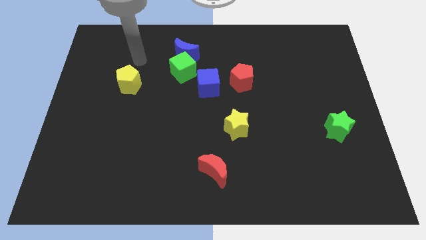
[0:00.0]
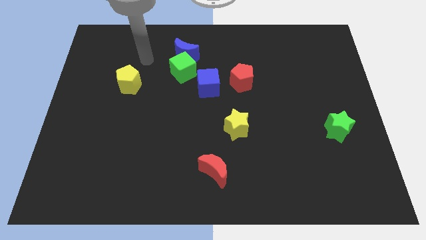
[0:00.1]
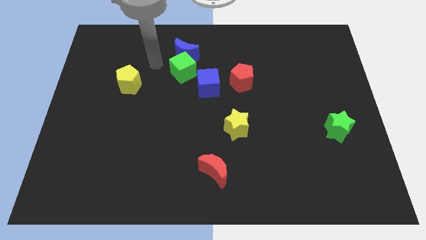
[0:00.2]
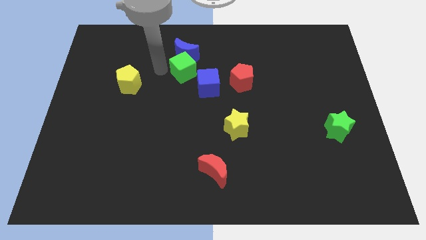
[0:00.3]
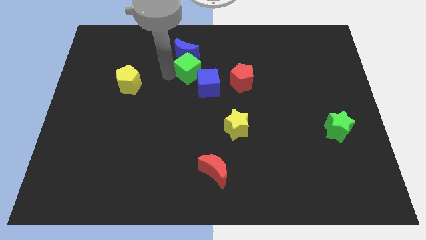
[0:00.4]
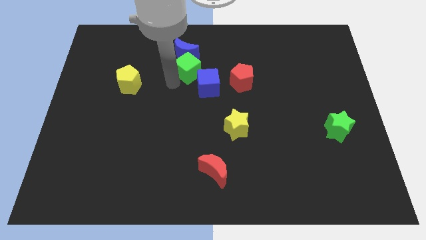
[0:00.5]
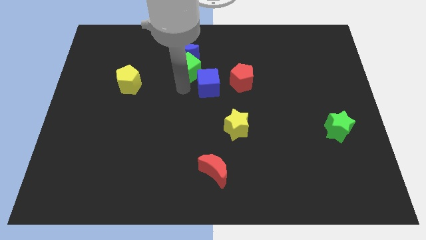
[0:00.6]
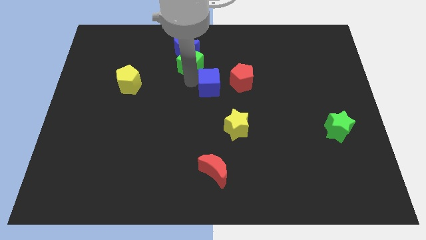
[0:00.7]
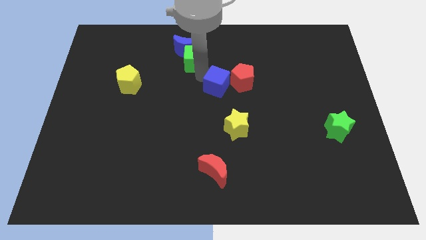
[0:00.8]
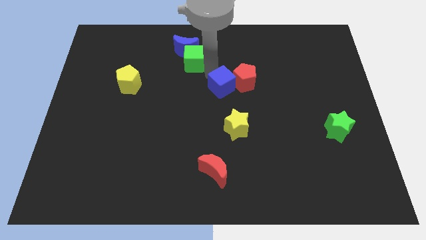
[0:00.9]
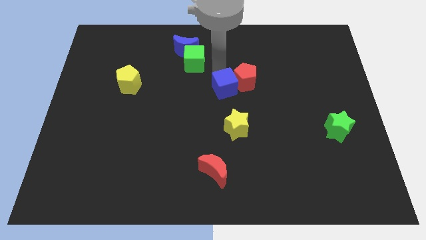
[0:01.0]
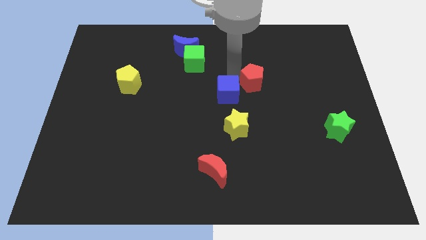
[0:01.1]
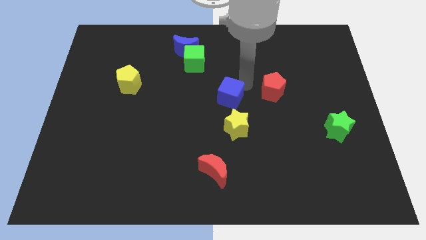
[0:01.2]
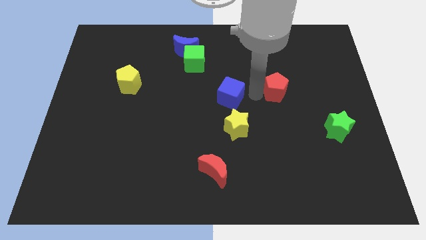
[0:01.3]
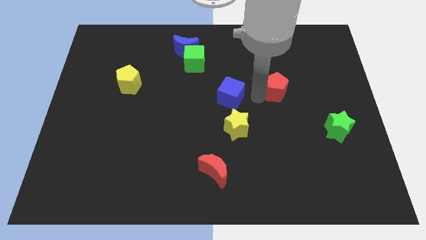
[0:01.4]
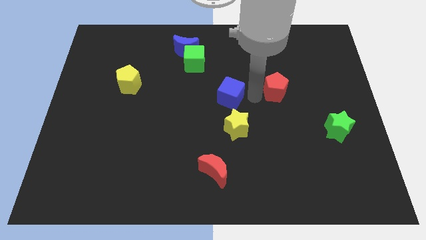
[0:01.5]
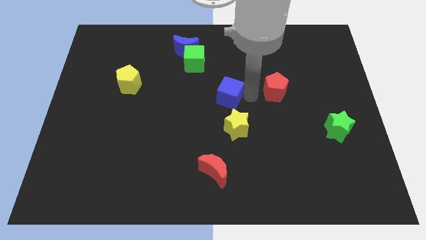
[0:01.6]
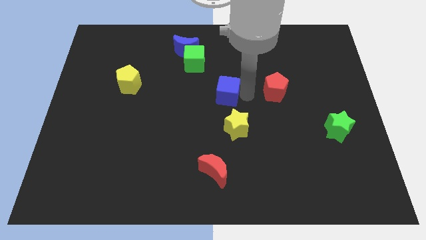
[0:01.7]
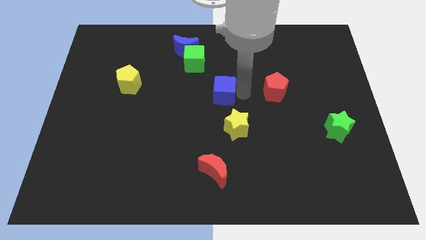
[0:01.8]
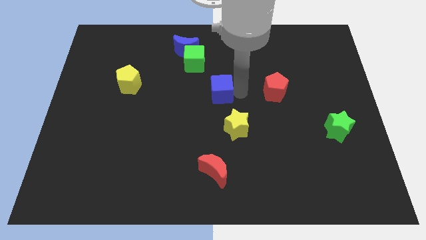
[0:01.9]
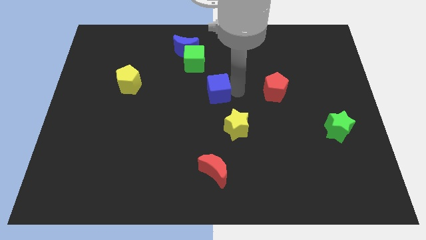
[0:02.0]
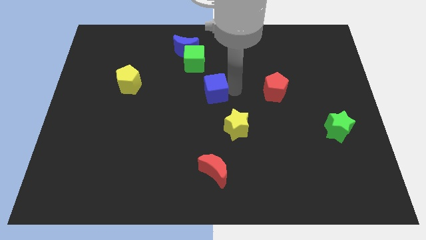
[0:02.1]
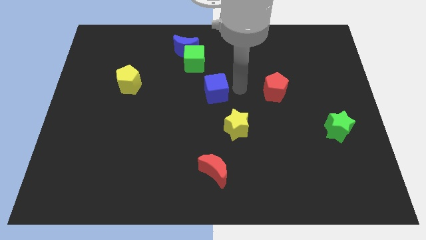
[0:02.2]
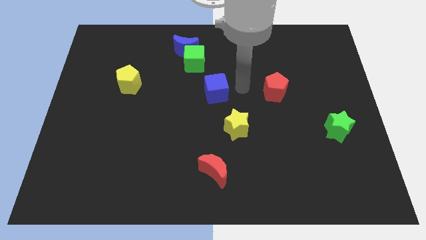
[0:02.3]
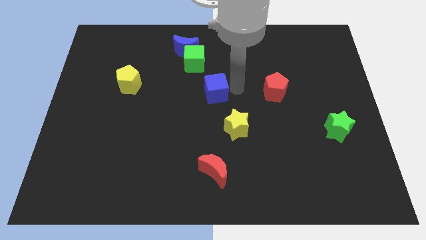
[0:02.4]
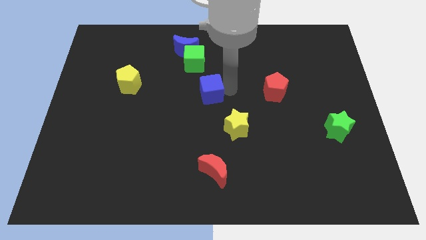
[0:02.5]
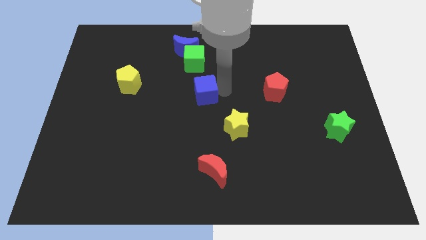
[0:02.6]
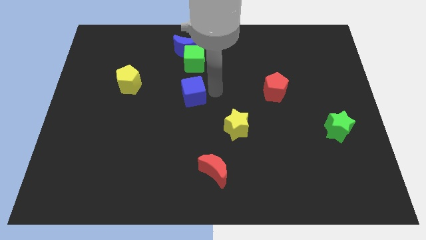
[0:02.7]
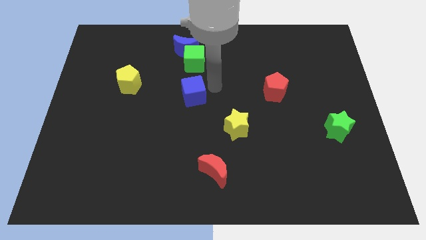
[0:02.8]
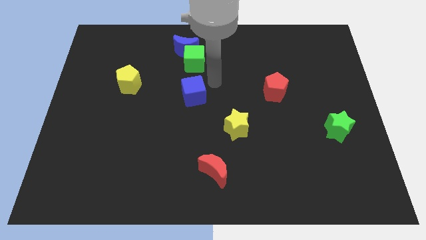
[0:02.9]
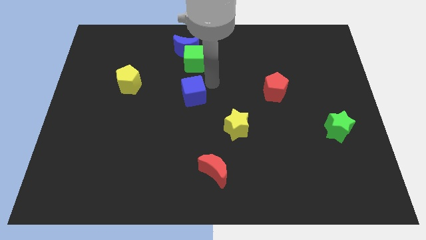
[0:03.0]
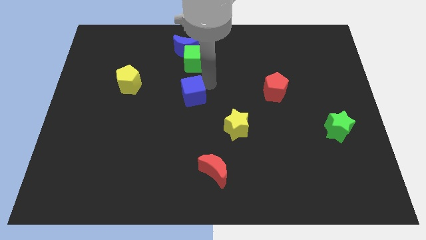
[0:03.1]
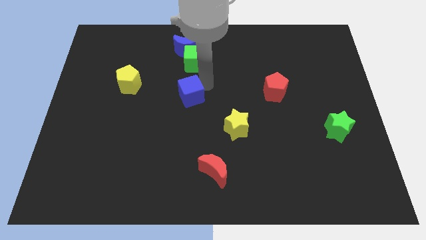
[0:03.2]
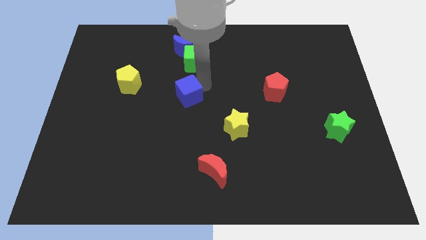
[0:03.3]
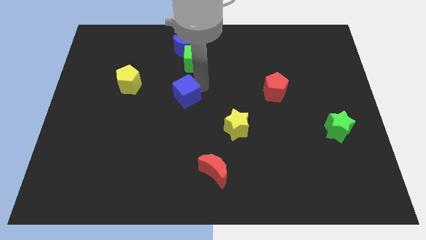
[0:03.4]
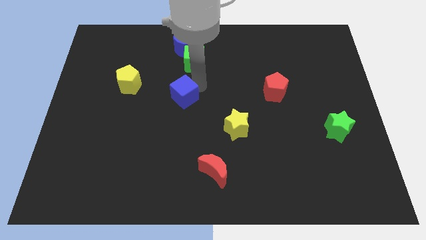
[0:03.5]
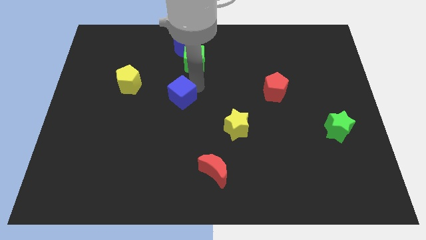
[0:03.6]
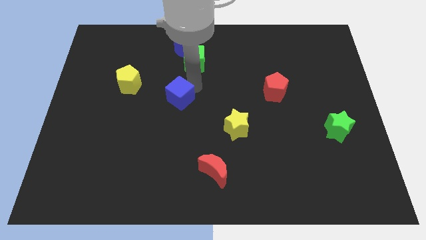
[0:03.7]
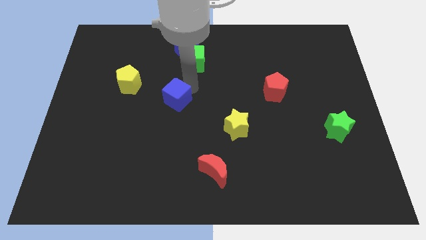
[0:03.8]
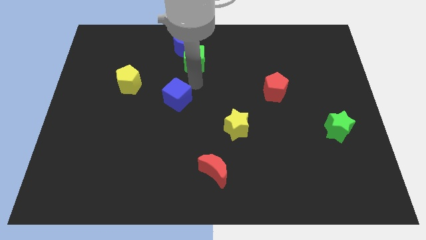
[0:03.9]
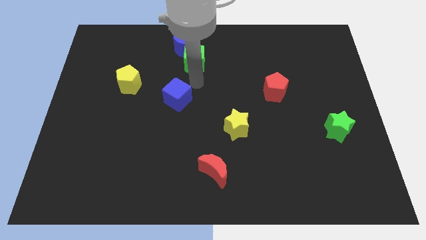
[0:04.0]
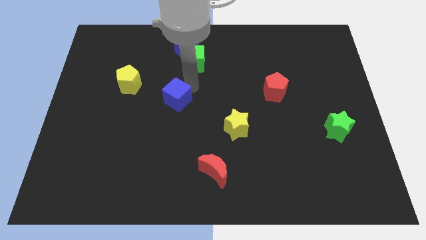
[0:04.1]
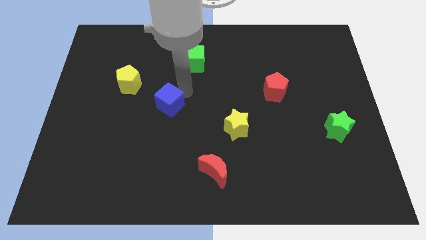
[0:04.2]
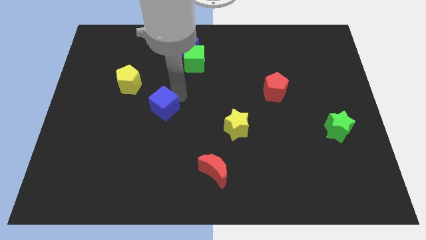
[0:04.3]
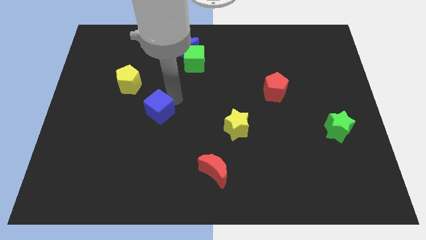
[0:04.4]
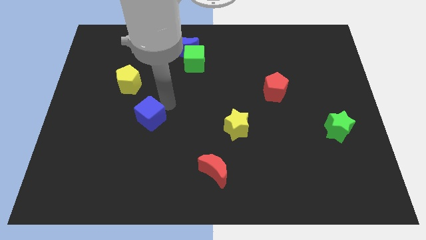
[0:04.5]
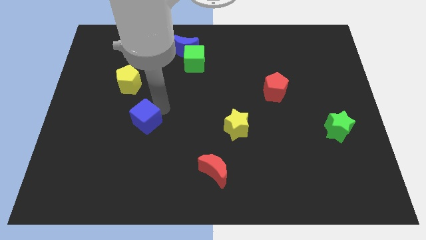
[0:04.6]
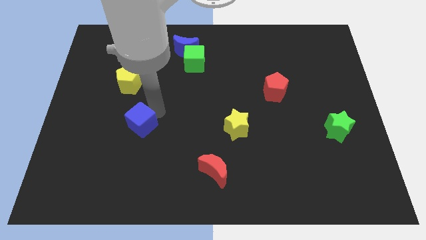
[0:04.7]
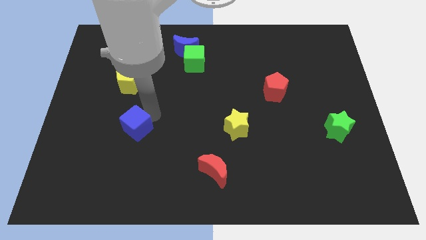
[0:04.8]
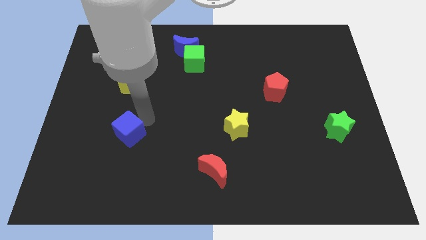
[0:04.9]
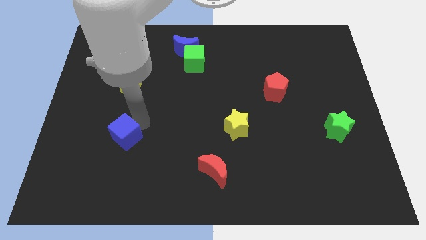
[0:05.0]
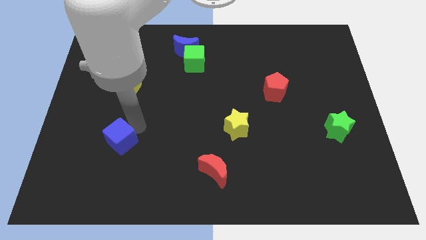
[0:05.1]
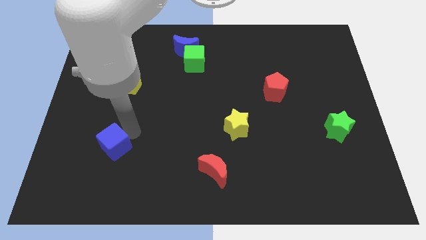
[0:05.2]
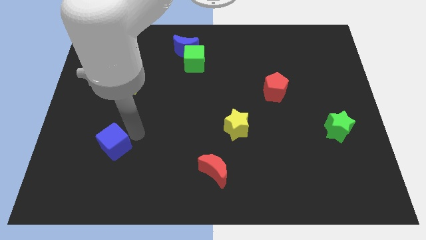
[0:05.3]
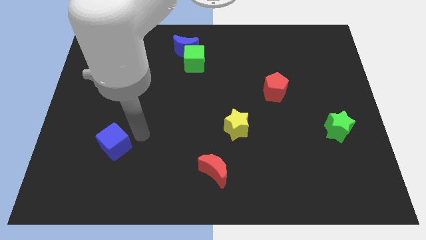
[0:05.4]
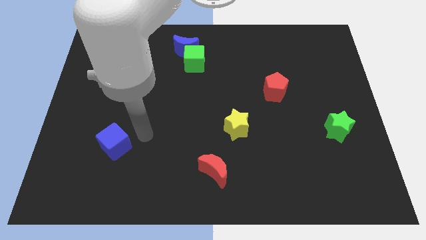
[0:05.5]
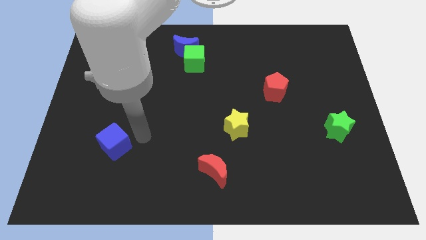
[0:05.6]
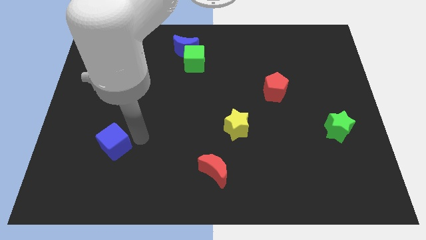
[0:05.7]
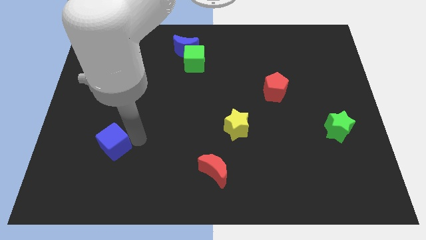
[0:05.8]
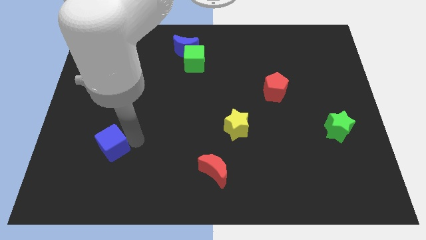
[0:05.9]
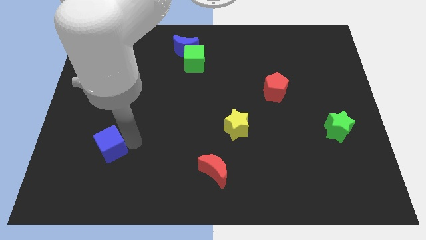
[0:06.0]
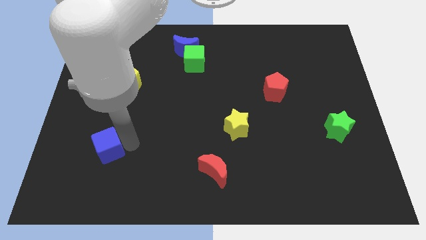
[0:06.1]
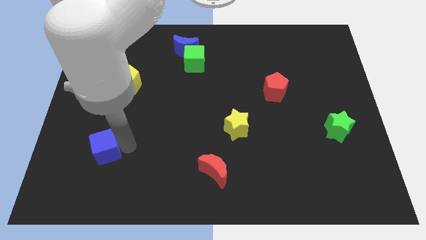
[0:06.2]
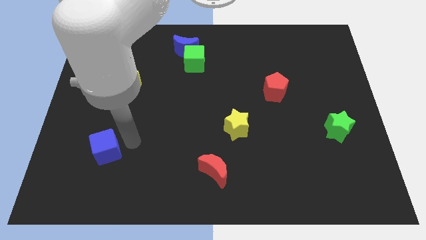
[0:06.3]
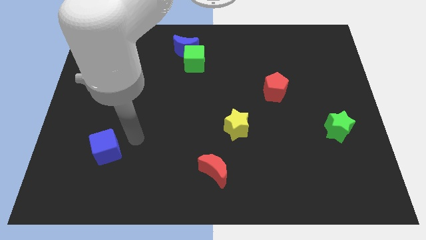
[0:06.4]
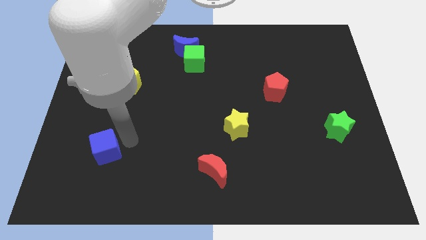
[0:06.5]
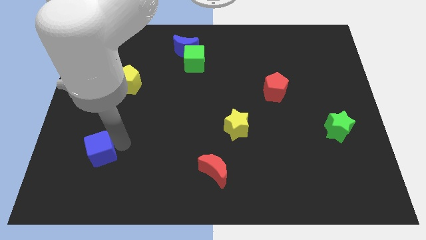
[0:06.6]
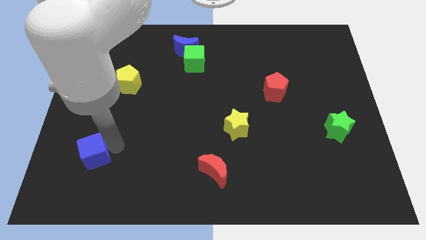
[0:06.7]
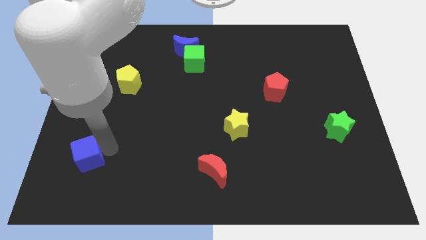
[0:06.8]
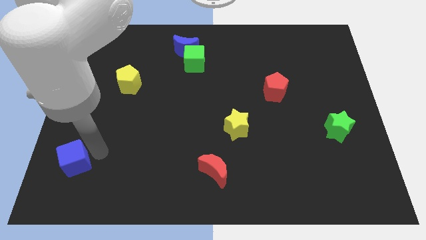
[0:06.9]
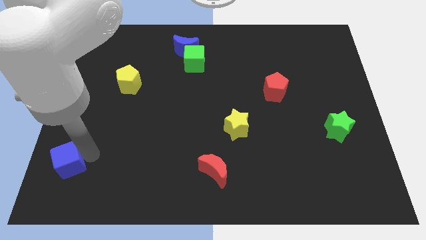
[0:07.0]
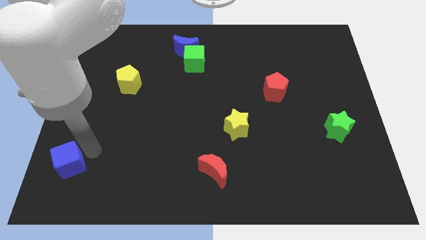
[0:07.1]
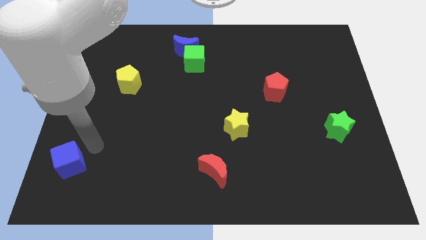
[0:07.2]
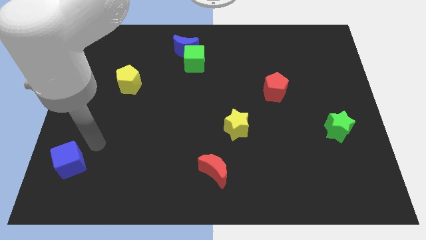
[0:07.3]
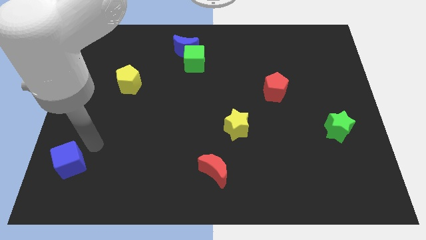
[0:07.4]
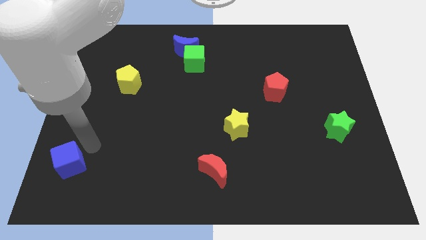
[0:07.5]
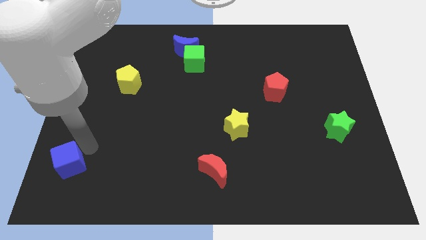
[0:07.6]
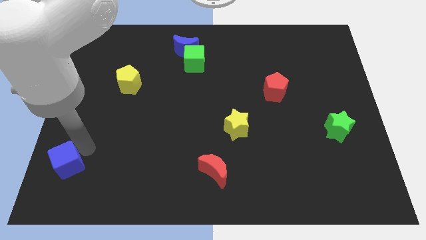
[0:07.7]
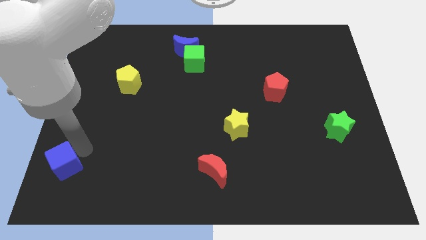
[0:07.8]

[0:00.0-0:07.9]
put the blue cube to the bottom left
